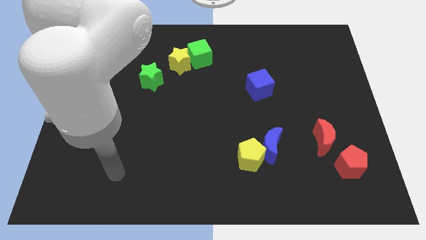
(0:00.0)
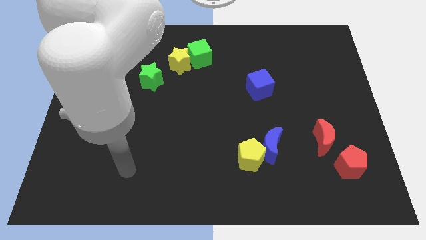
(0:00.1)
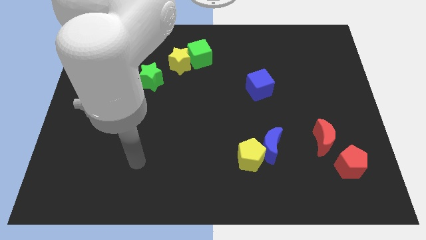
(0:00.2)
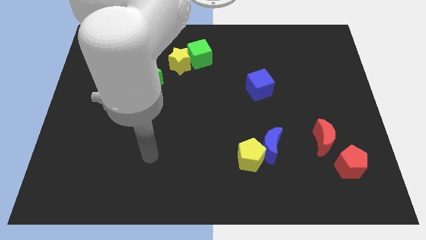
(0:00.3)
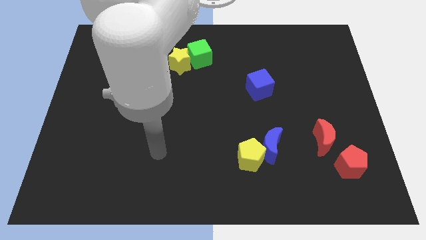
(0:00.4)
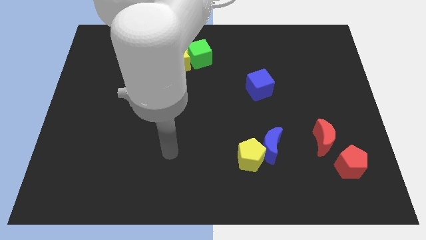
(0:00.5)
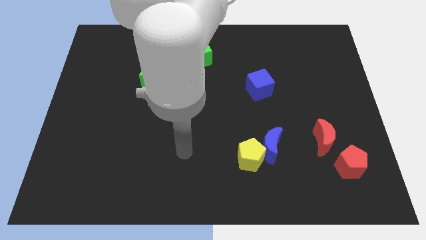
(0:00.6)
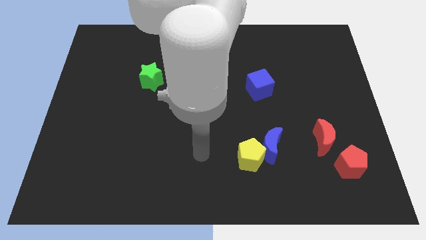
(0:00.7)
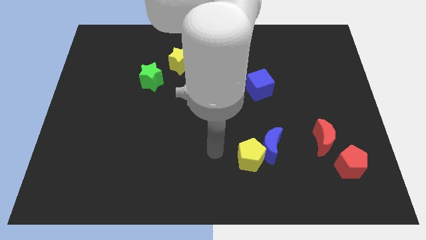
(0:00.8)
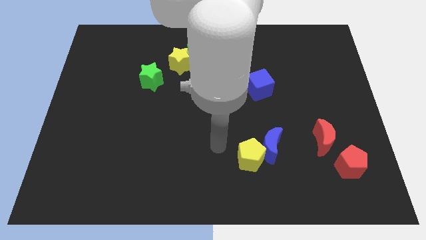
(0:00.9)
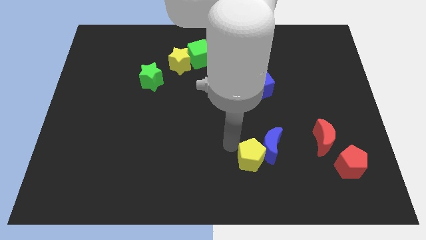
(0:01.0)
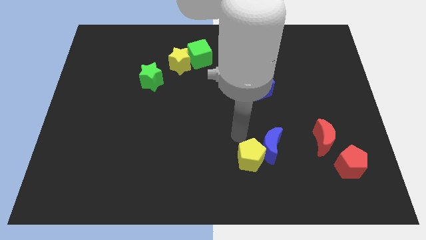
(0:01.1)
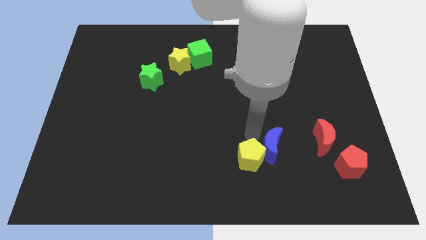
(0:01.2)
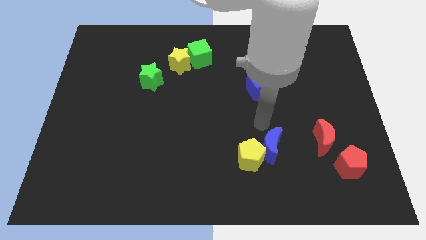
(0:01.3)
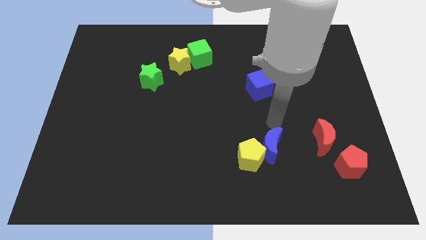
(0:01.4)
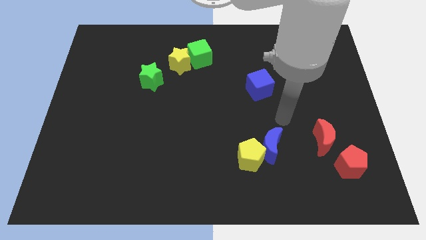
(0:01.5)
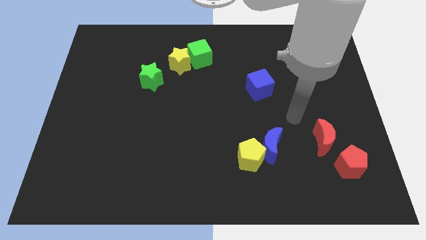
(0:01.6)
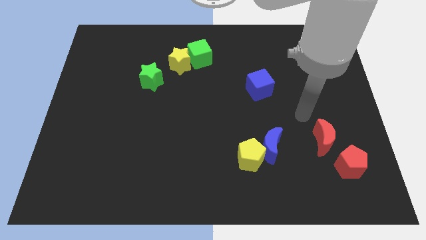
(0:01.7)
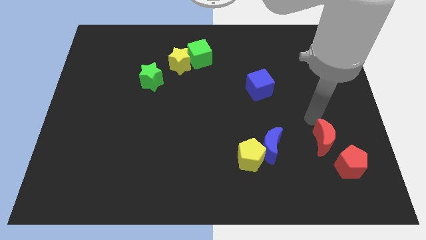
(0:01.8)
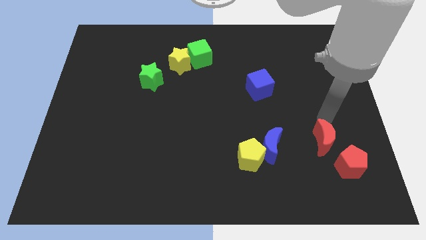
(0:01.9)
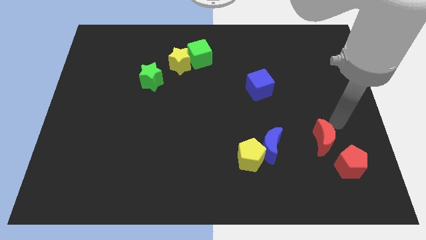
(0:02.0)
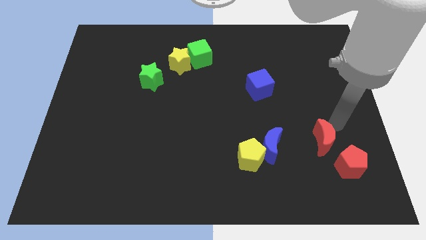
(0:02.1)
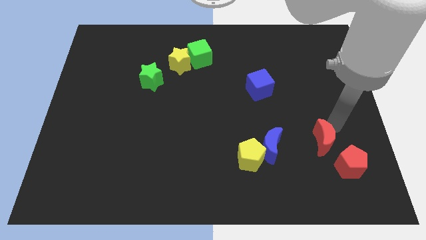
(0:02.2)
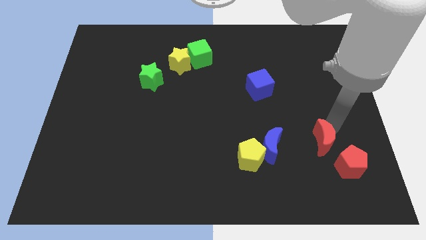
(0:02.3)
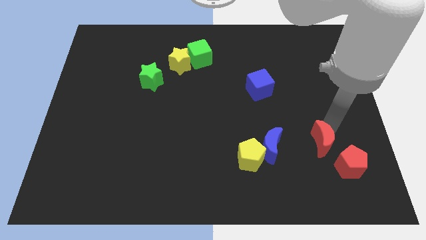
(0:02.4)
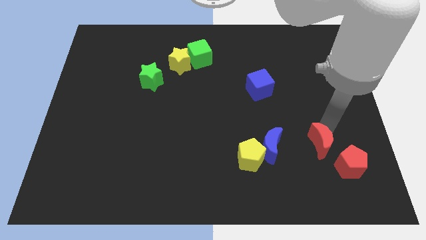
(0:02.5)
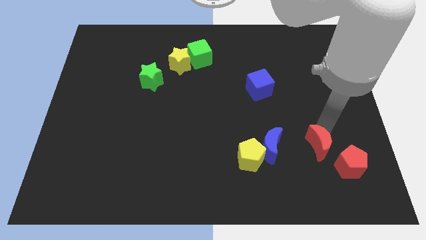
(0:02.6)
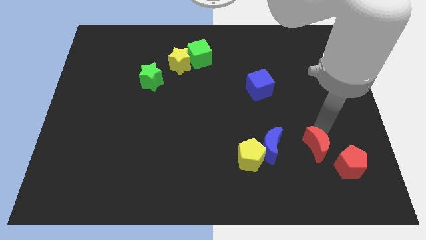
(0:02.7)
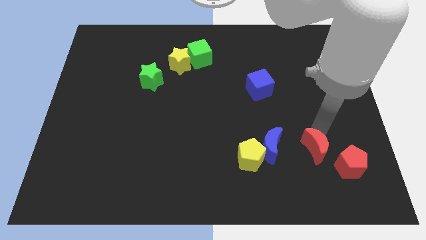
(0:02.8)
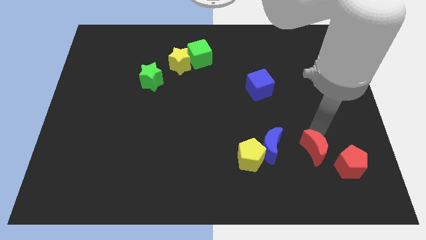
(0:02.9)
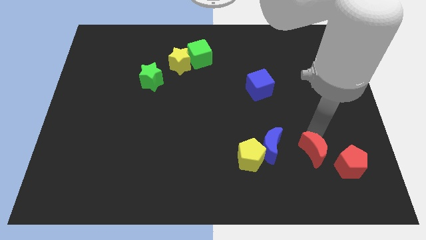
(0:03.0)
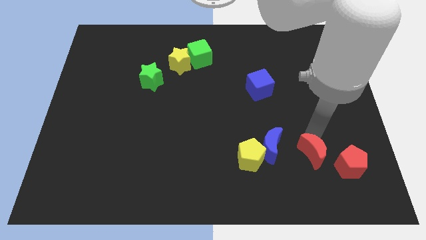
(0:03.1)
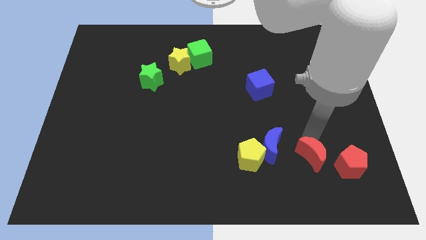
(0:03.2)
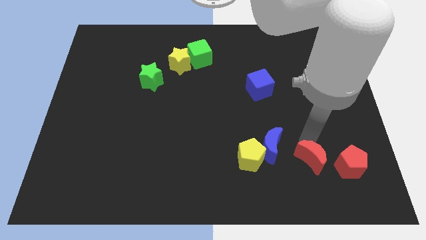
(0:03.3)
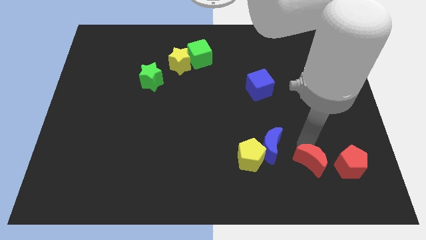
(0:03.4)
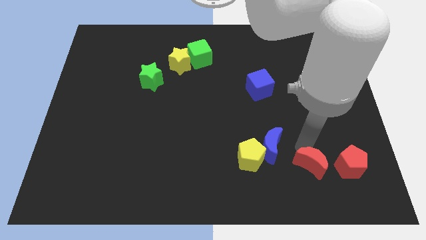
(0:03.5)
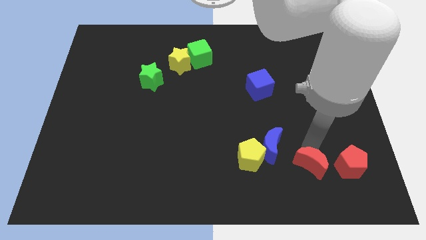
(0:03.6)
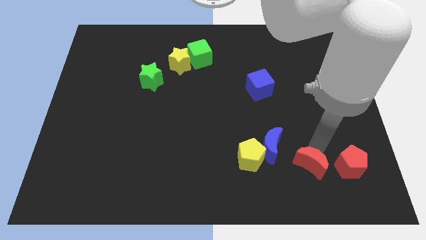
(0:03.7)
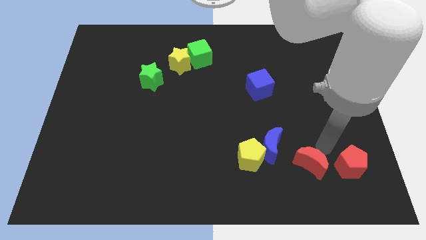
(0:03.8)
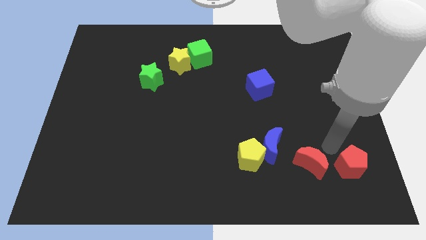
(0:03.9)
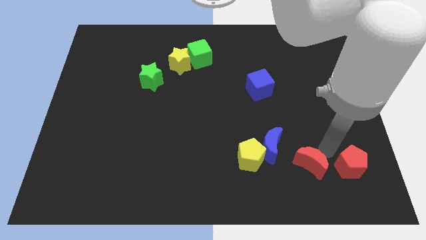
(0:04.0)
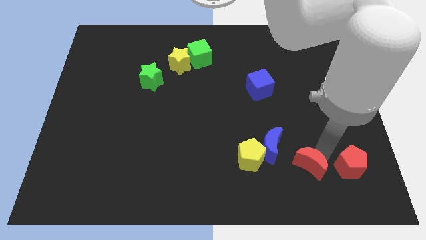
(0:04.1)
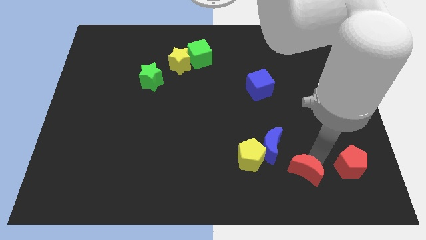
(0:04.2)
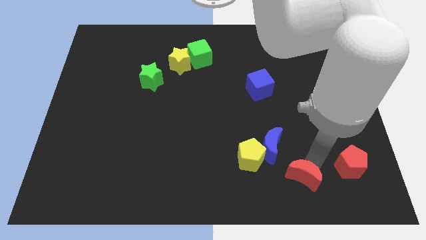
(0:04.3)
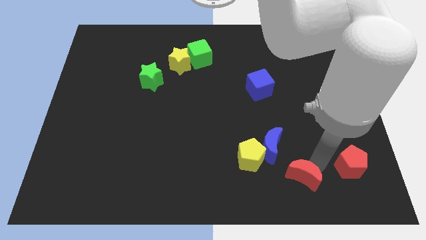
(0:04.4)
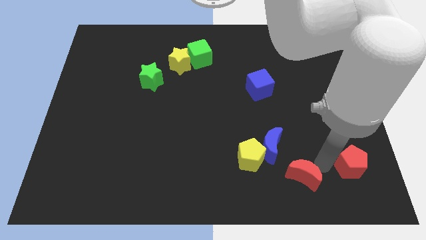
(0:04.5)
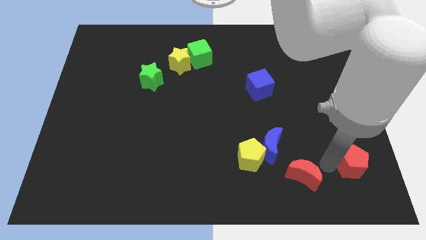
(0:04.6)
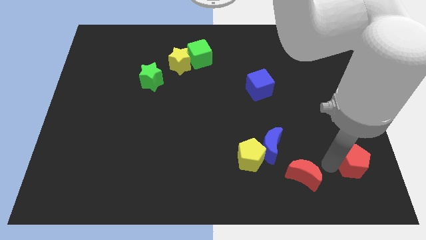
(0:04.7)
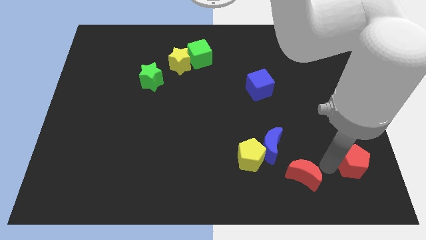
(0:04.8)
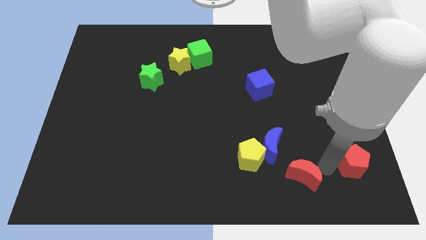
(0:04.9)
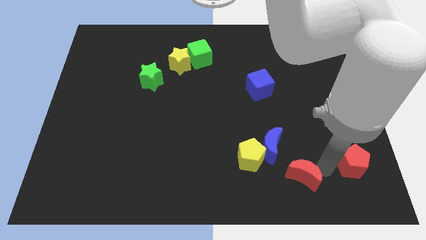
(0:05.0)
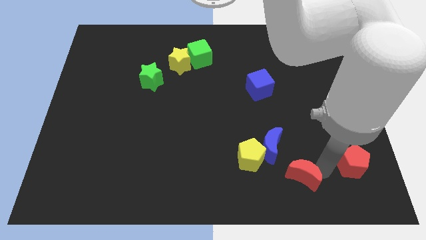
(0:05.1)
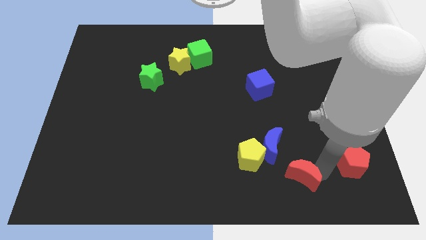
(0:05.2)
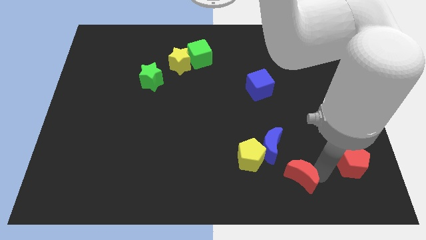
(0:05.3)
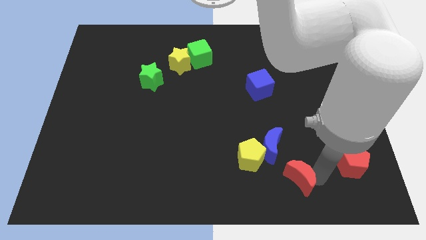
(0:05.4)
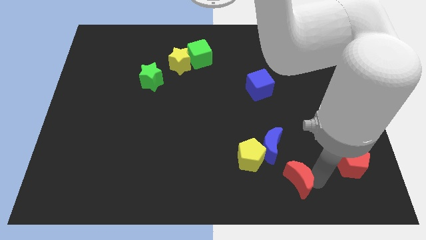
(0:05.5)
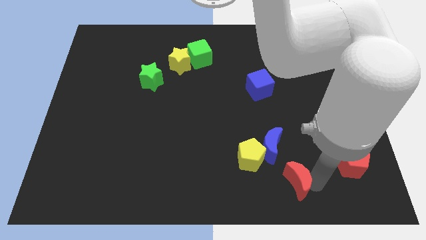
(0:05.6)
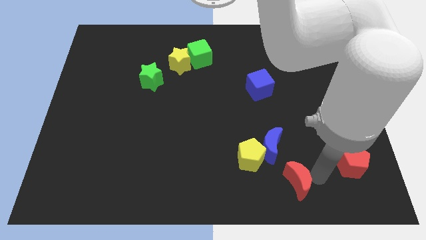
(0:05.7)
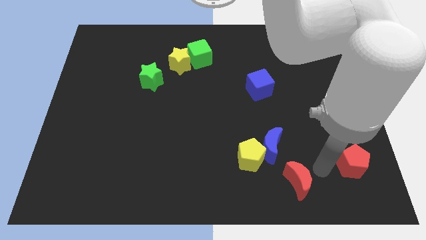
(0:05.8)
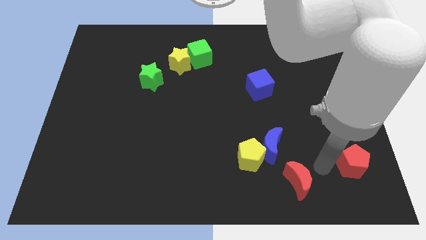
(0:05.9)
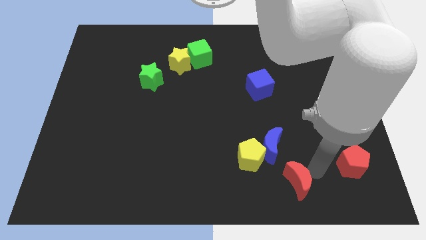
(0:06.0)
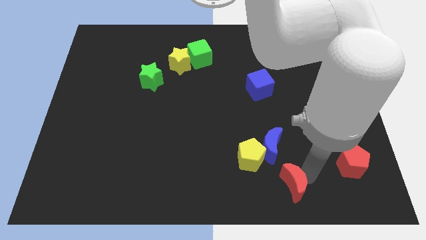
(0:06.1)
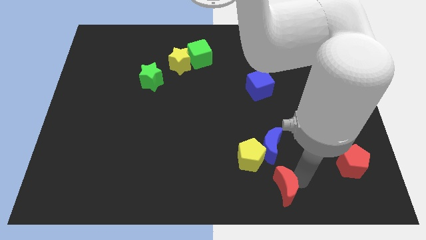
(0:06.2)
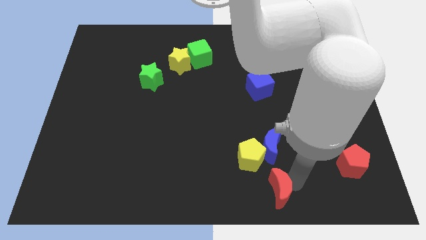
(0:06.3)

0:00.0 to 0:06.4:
put the red moon to the bottom
